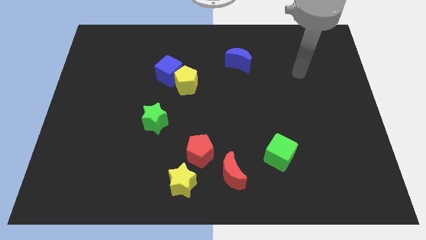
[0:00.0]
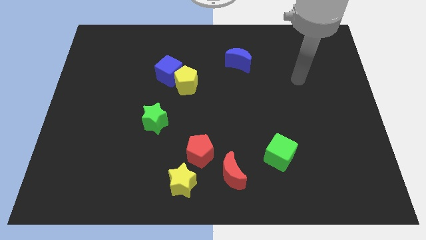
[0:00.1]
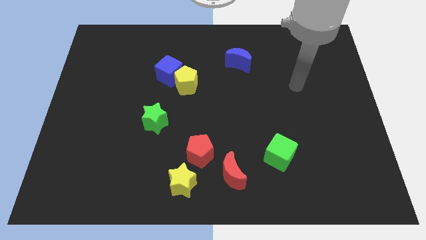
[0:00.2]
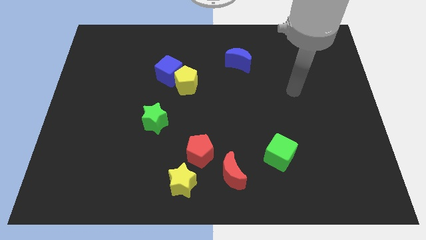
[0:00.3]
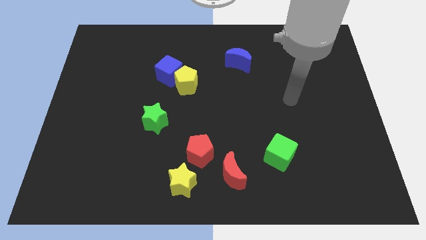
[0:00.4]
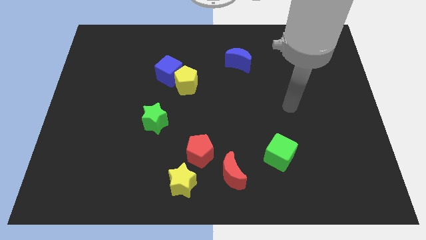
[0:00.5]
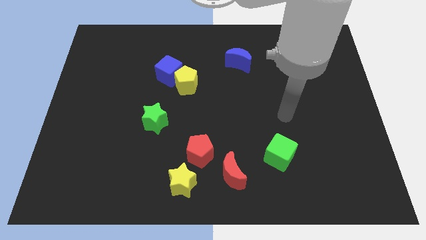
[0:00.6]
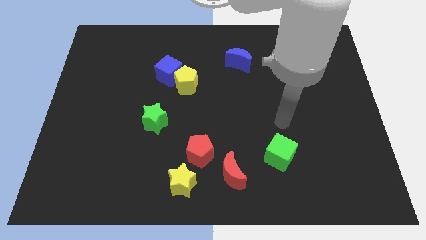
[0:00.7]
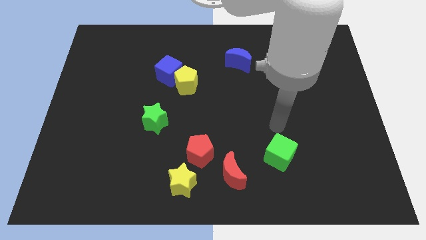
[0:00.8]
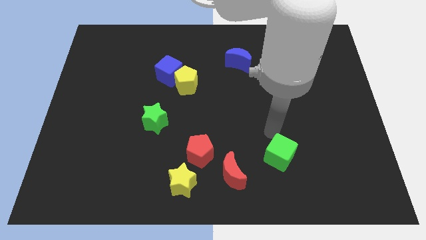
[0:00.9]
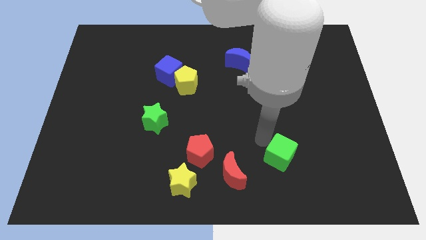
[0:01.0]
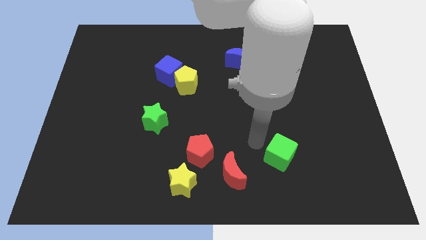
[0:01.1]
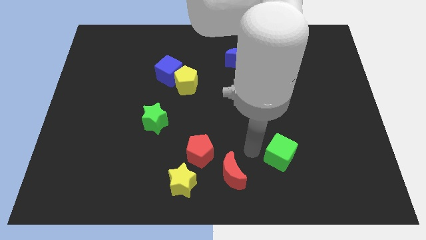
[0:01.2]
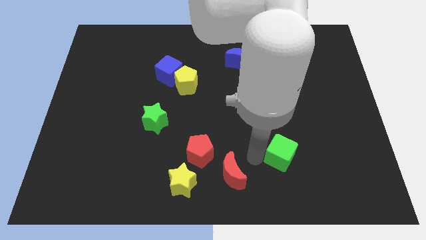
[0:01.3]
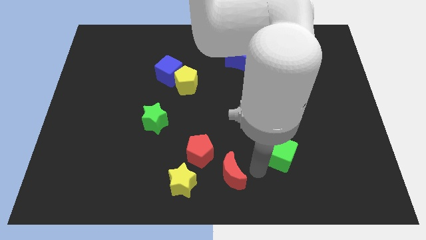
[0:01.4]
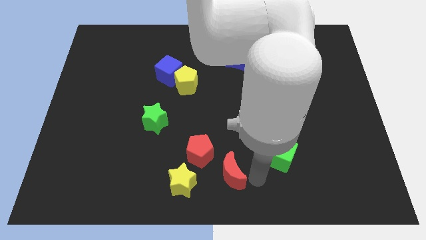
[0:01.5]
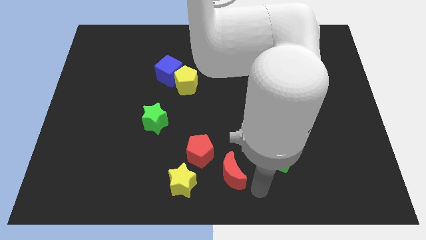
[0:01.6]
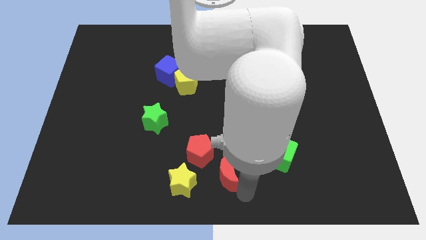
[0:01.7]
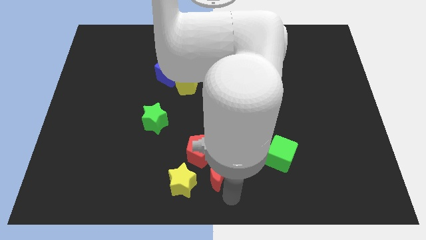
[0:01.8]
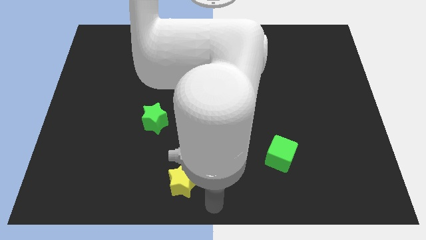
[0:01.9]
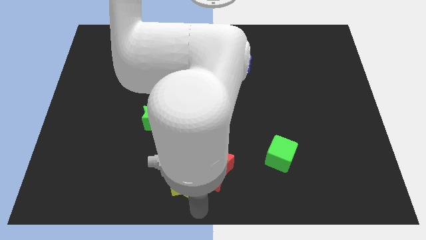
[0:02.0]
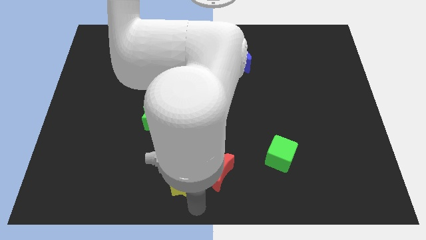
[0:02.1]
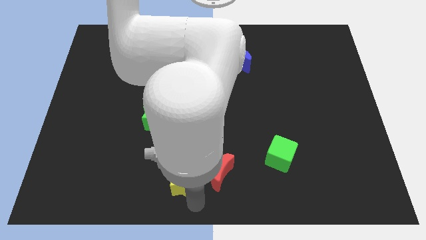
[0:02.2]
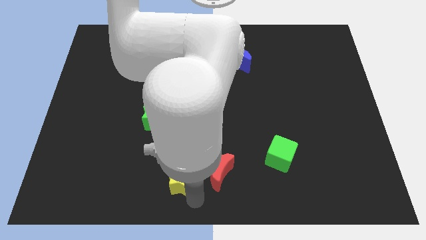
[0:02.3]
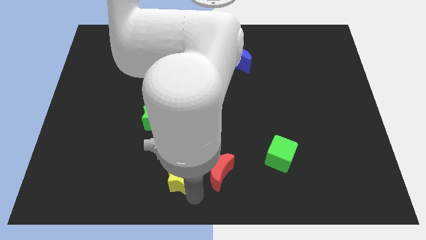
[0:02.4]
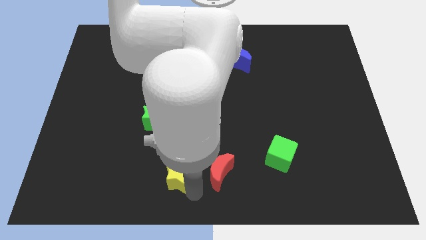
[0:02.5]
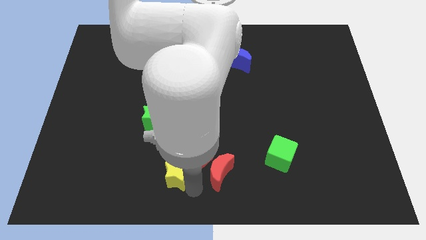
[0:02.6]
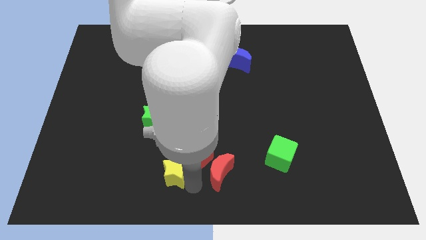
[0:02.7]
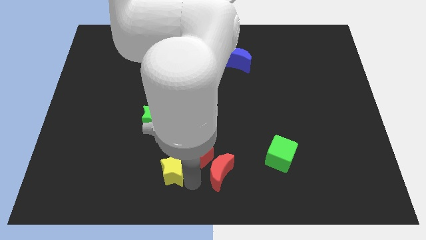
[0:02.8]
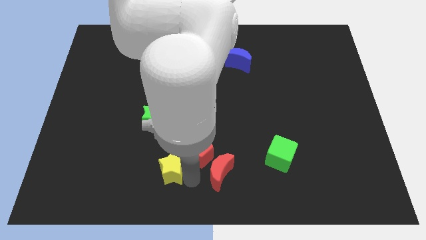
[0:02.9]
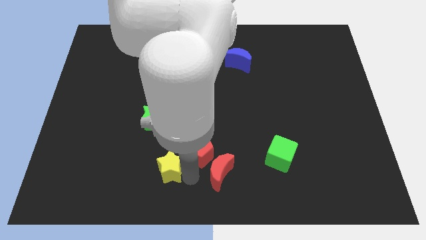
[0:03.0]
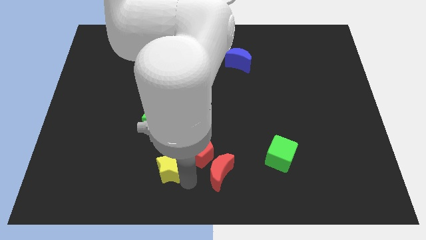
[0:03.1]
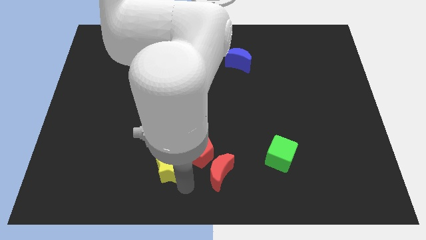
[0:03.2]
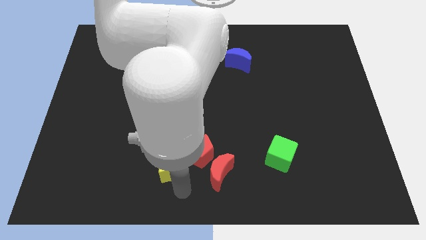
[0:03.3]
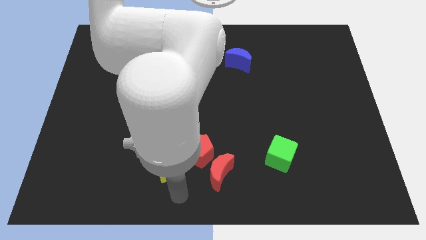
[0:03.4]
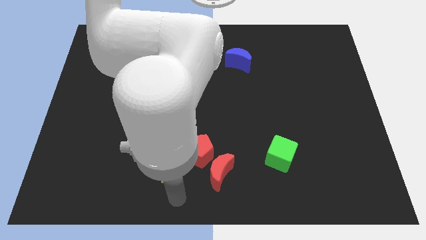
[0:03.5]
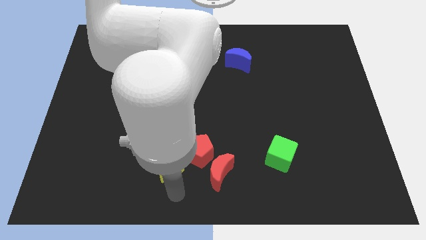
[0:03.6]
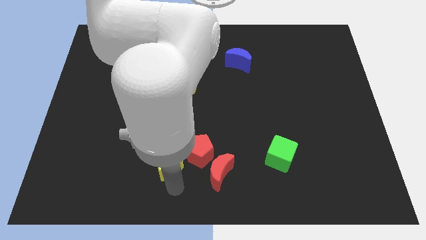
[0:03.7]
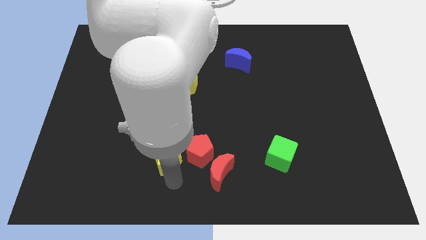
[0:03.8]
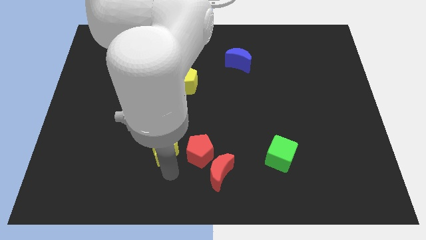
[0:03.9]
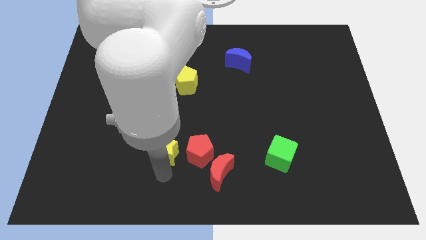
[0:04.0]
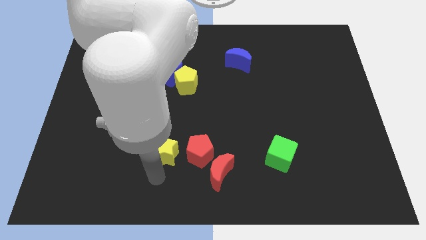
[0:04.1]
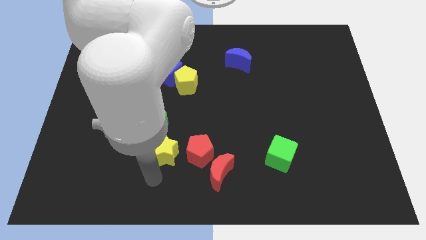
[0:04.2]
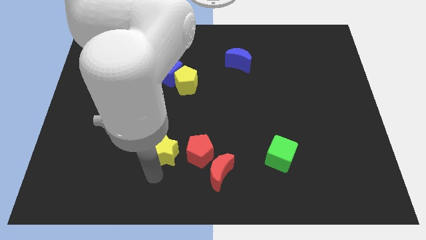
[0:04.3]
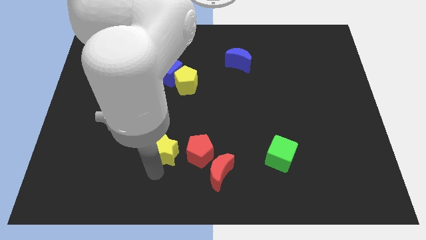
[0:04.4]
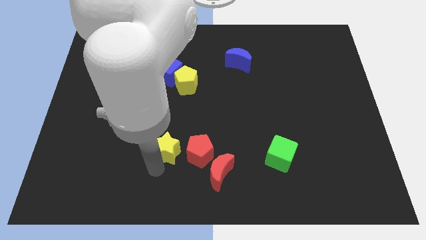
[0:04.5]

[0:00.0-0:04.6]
slide the yellow star a little bit upwards

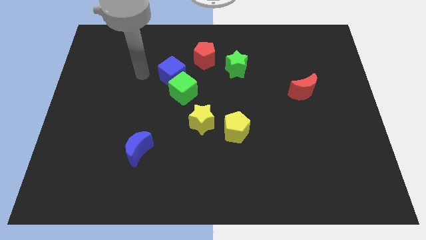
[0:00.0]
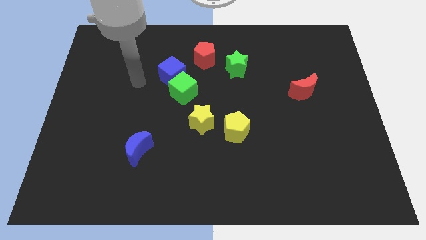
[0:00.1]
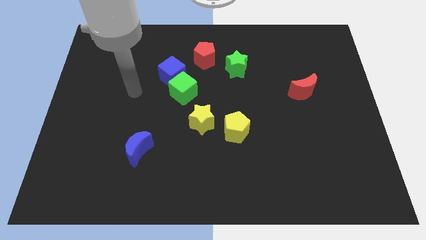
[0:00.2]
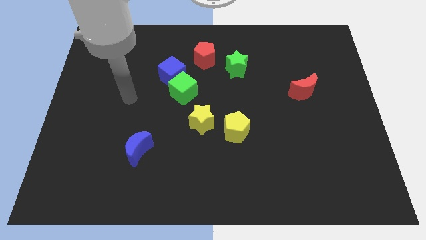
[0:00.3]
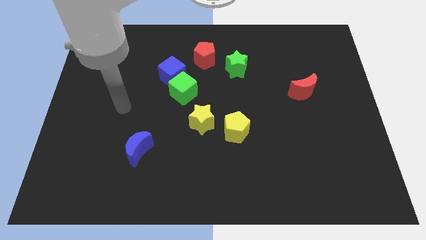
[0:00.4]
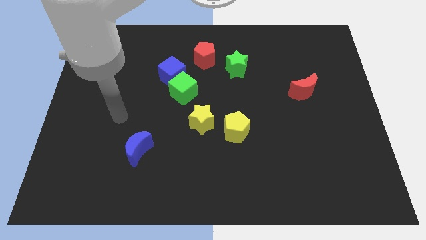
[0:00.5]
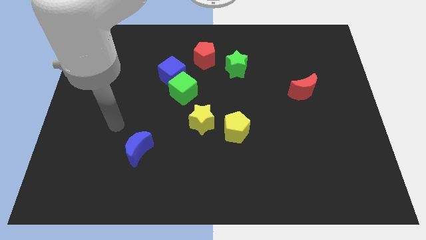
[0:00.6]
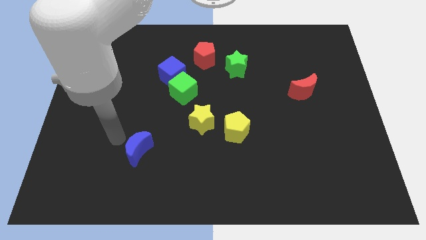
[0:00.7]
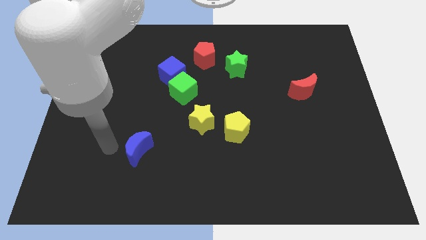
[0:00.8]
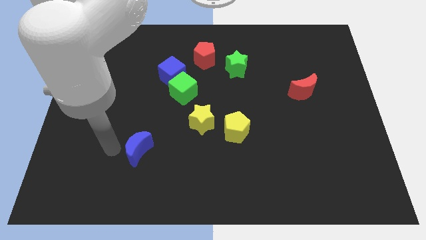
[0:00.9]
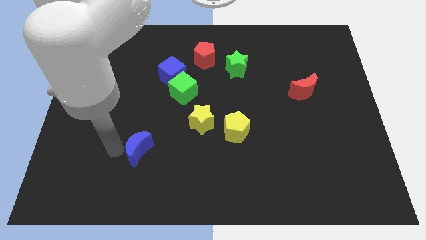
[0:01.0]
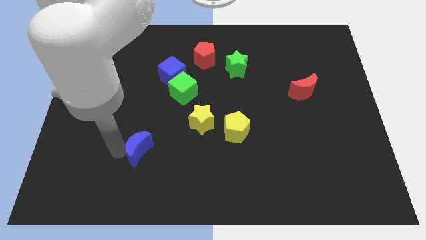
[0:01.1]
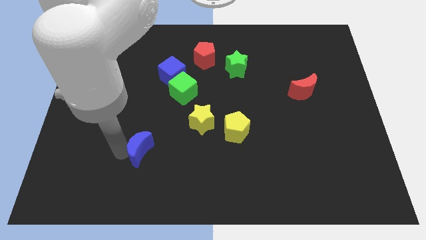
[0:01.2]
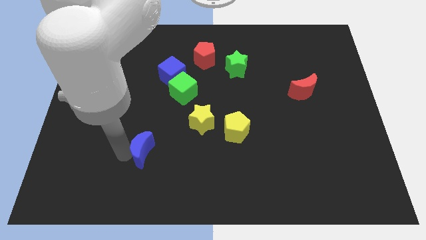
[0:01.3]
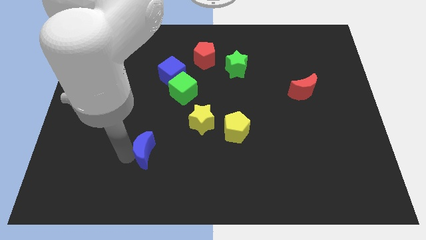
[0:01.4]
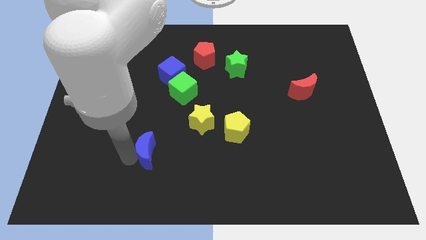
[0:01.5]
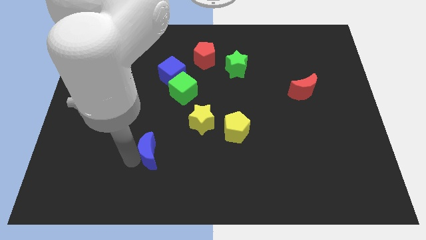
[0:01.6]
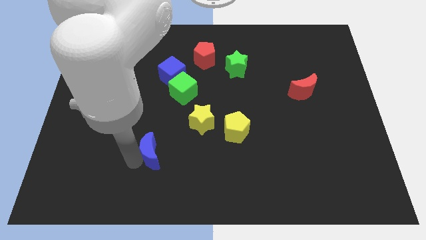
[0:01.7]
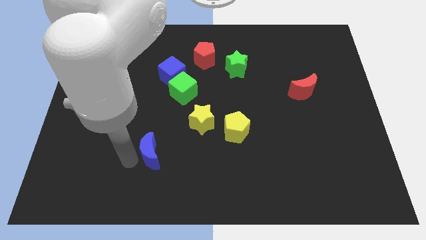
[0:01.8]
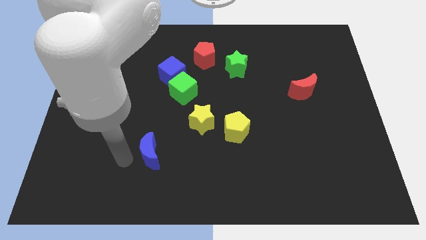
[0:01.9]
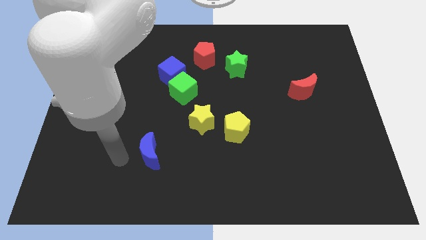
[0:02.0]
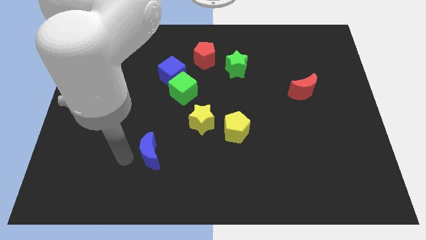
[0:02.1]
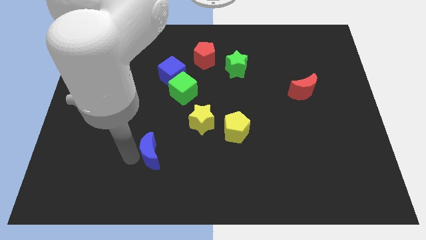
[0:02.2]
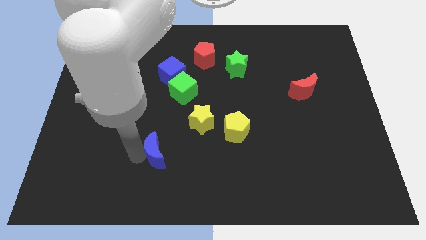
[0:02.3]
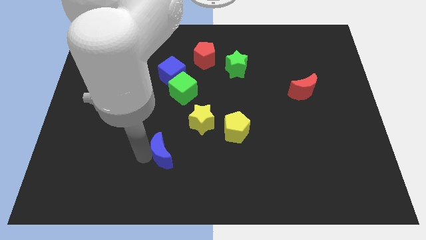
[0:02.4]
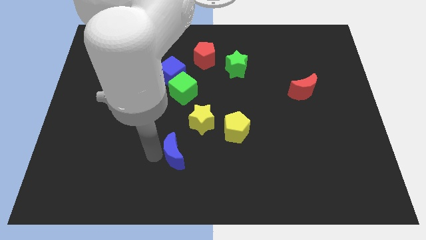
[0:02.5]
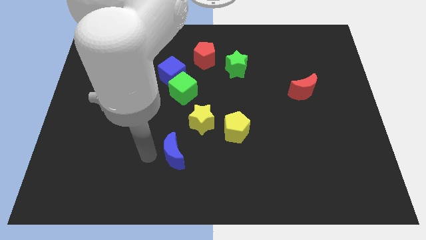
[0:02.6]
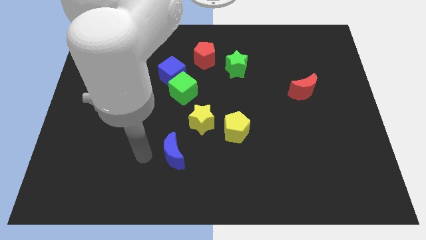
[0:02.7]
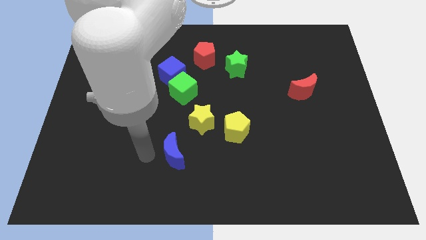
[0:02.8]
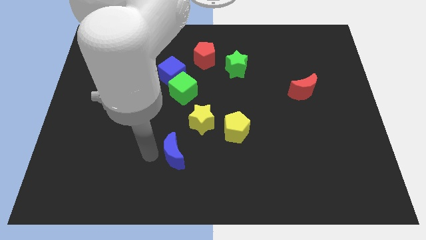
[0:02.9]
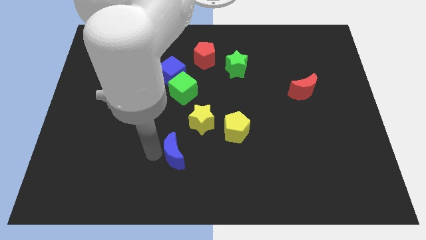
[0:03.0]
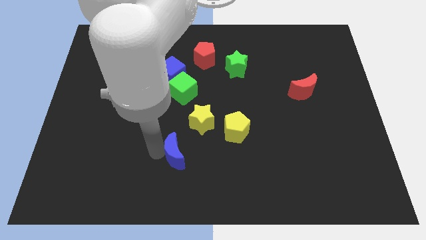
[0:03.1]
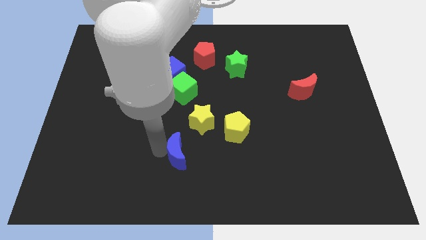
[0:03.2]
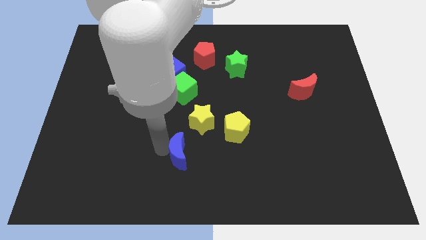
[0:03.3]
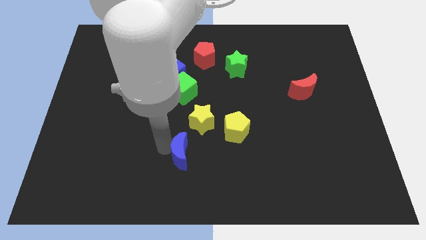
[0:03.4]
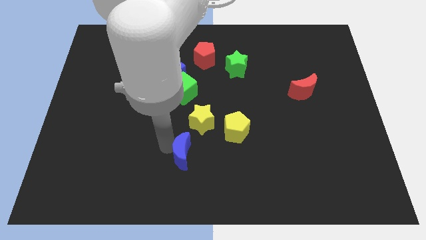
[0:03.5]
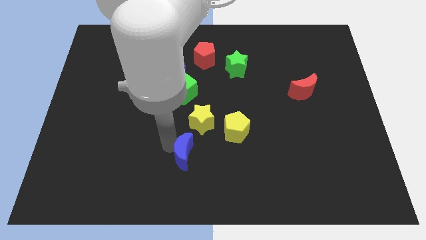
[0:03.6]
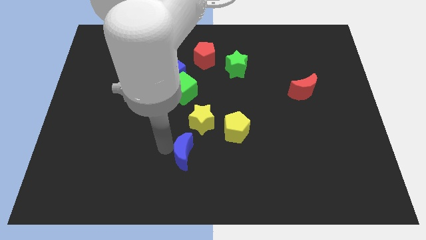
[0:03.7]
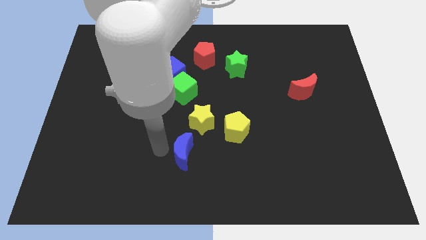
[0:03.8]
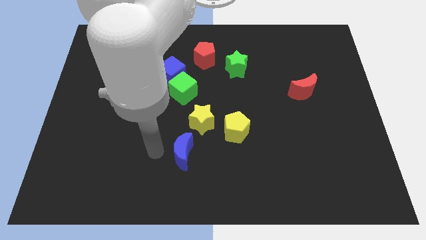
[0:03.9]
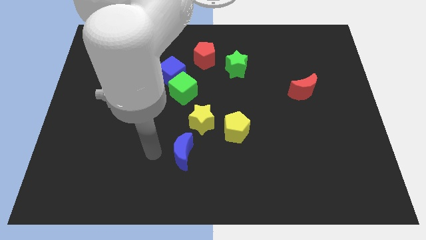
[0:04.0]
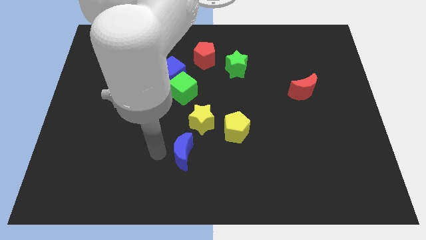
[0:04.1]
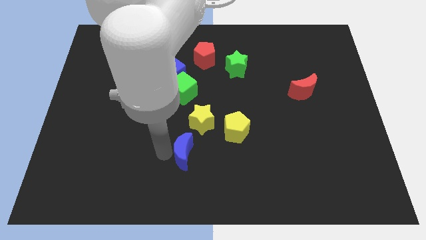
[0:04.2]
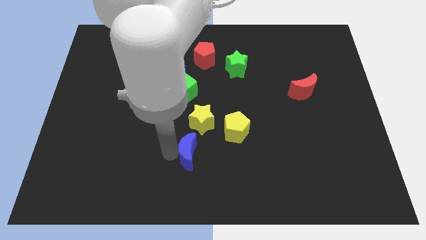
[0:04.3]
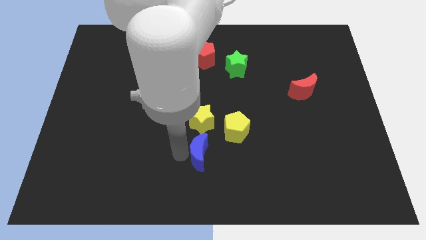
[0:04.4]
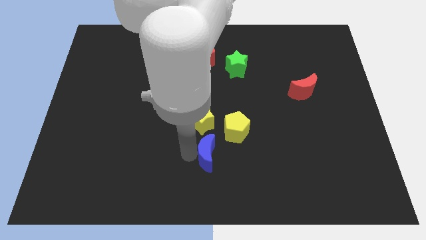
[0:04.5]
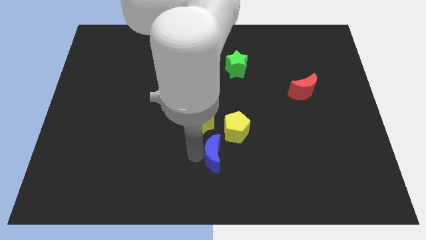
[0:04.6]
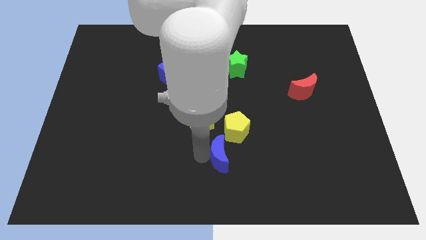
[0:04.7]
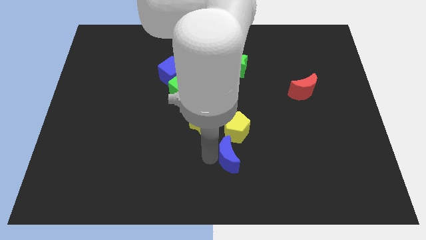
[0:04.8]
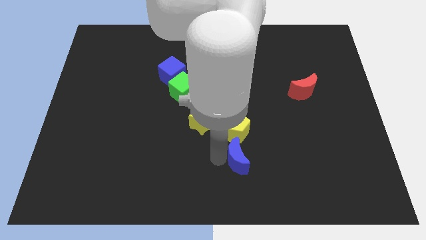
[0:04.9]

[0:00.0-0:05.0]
push the blue moon right
